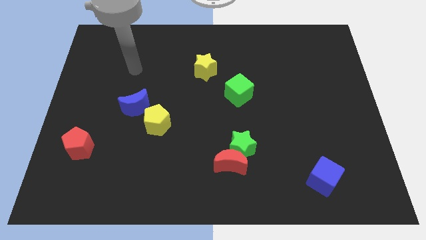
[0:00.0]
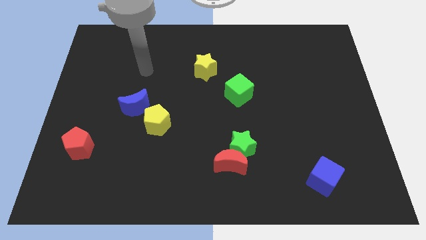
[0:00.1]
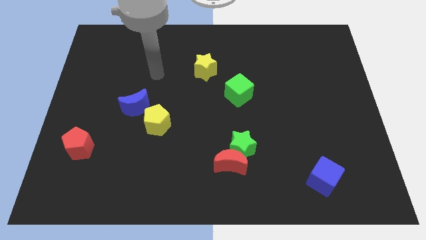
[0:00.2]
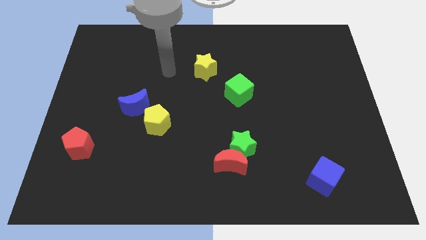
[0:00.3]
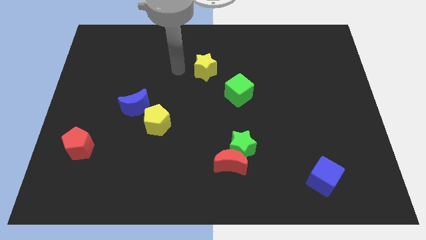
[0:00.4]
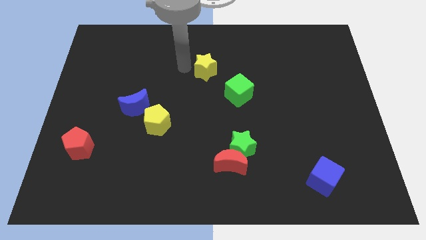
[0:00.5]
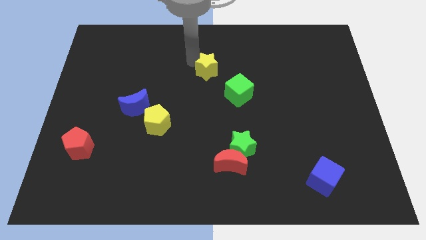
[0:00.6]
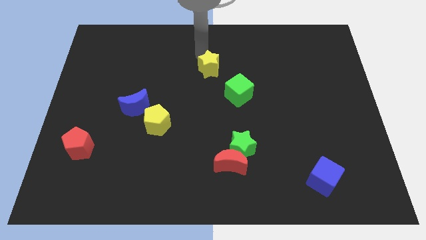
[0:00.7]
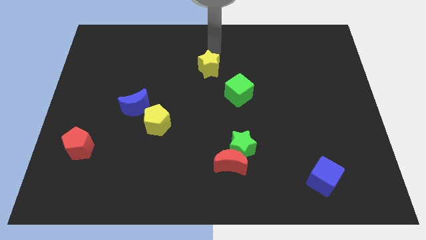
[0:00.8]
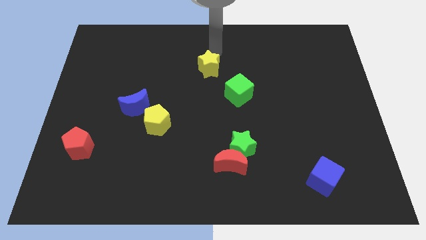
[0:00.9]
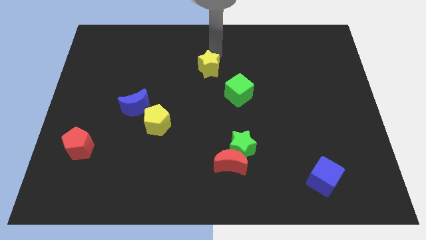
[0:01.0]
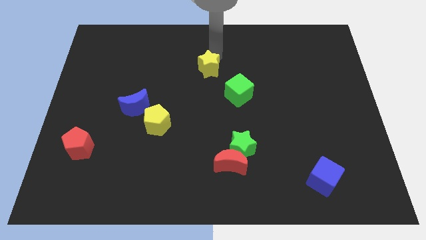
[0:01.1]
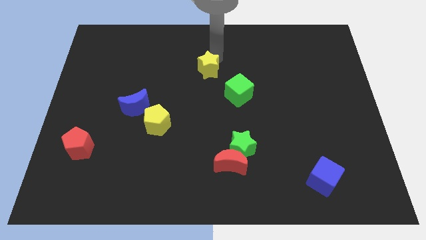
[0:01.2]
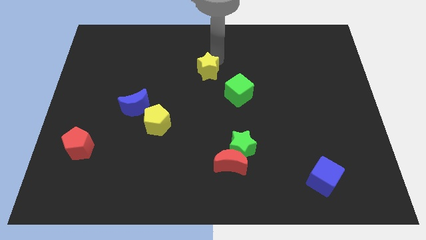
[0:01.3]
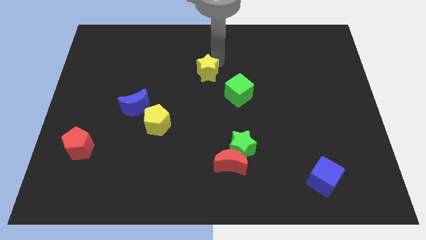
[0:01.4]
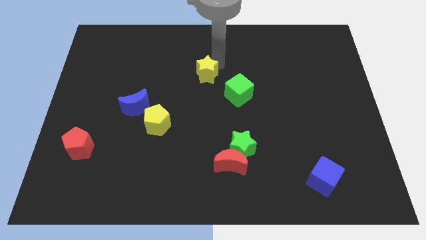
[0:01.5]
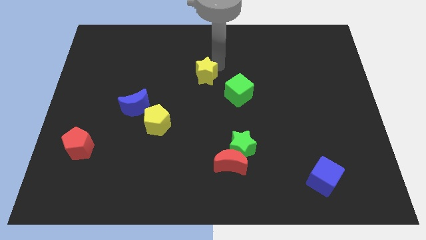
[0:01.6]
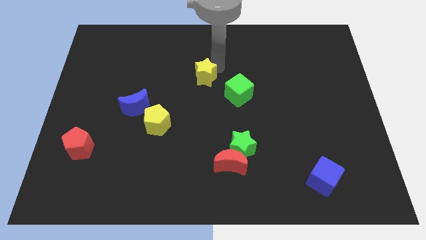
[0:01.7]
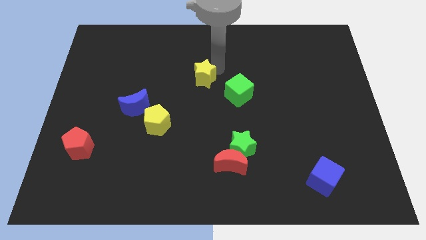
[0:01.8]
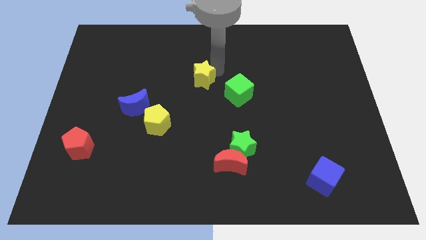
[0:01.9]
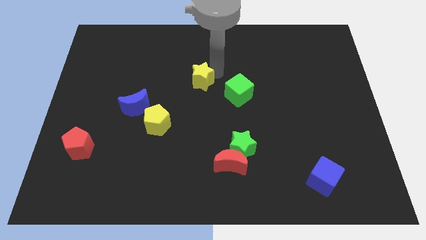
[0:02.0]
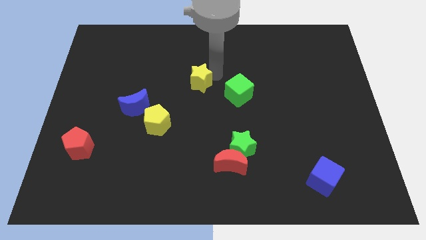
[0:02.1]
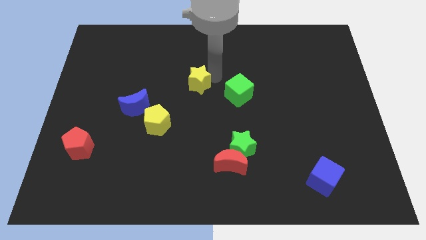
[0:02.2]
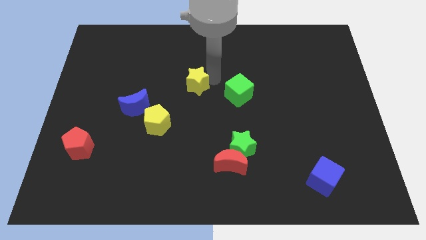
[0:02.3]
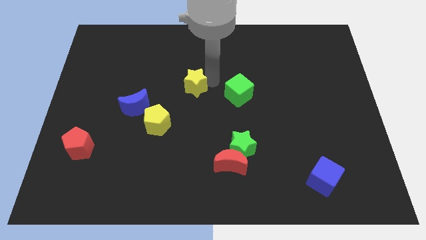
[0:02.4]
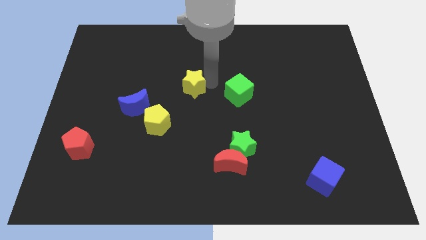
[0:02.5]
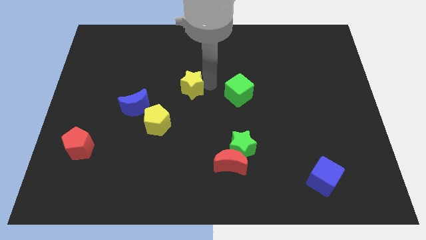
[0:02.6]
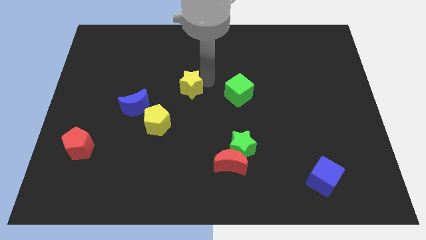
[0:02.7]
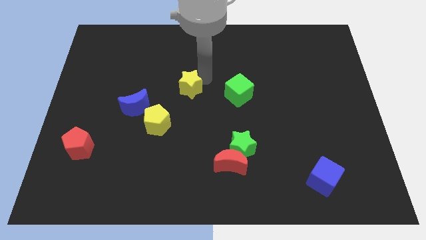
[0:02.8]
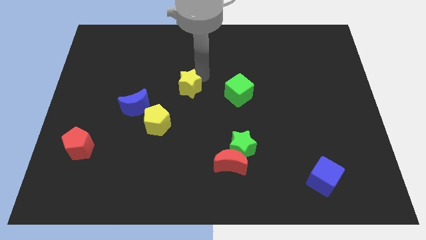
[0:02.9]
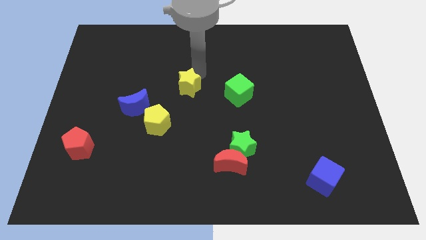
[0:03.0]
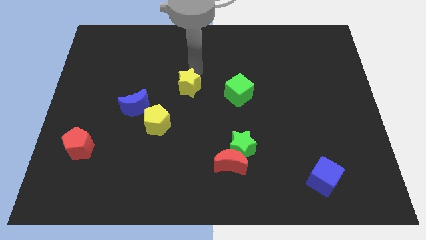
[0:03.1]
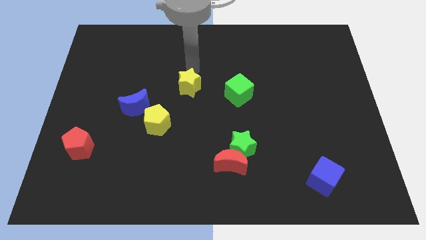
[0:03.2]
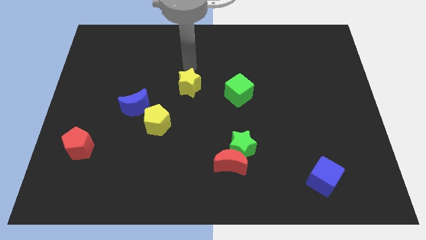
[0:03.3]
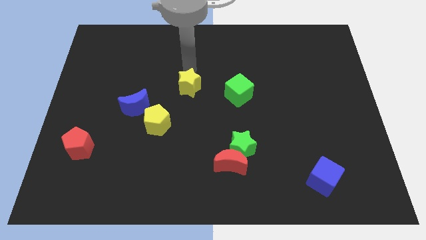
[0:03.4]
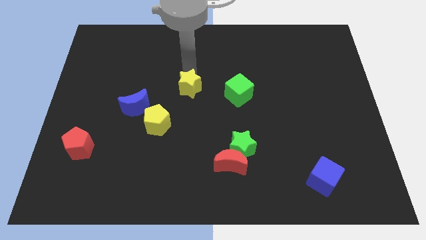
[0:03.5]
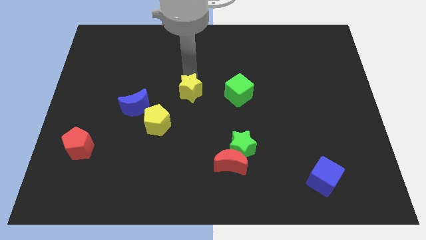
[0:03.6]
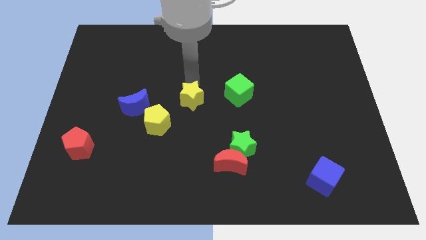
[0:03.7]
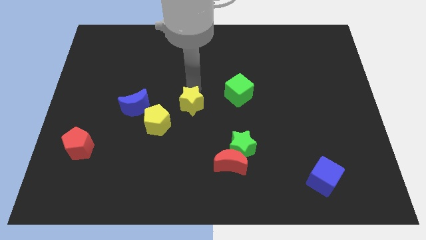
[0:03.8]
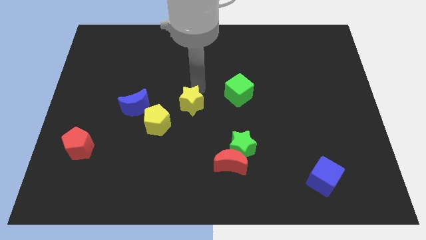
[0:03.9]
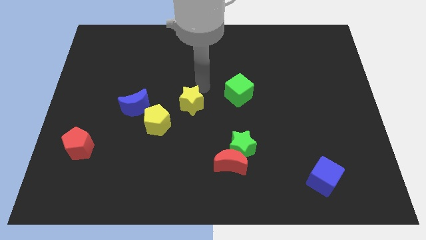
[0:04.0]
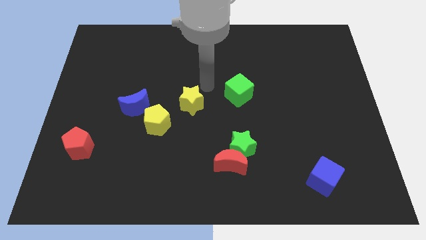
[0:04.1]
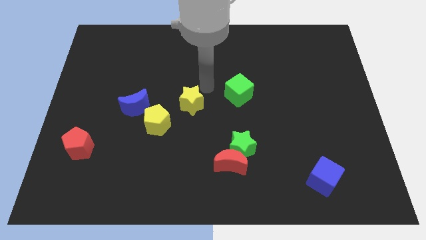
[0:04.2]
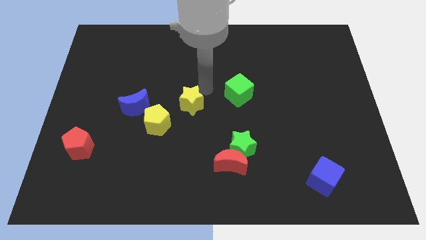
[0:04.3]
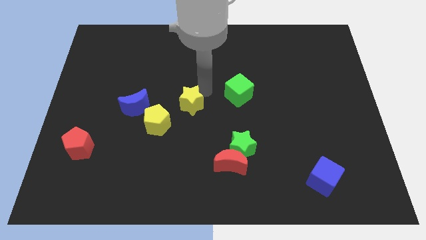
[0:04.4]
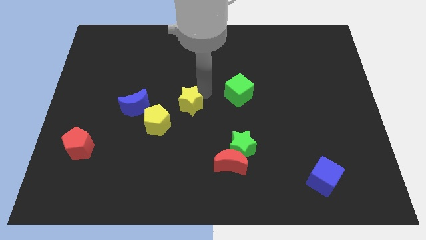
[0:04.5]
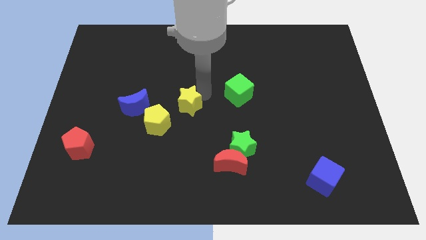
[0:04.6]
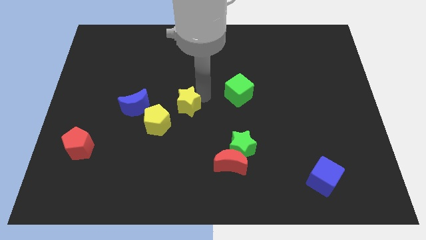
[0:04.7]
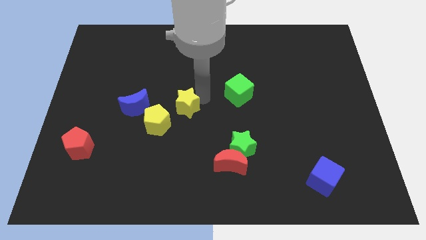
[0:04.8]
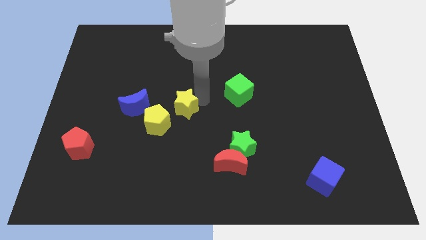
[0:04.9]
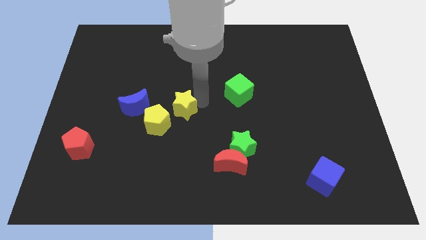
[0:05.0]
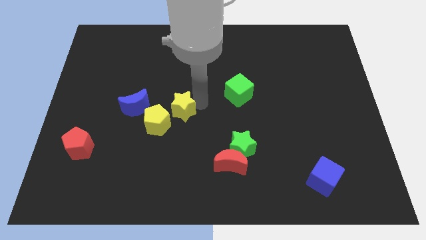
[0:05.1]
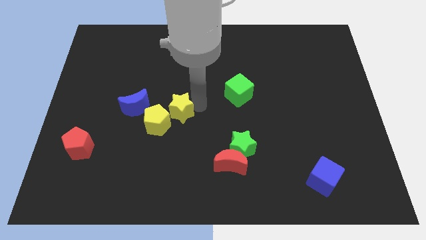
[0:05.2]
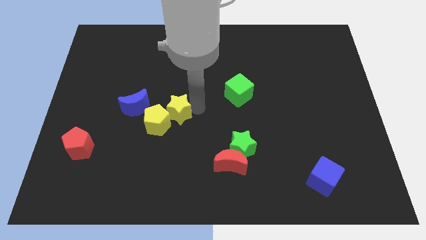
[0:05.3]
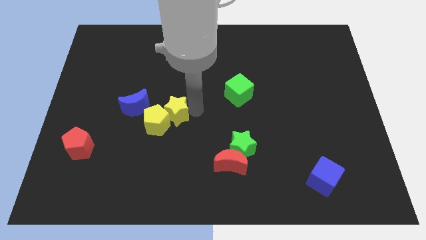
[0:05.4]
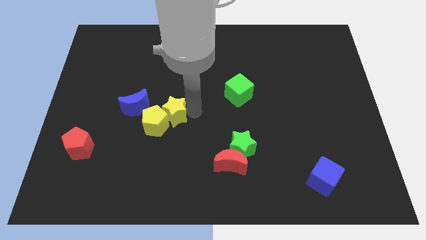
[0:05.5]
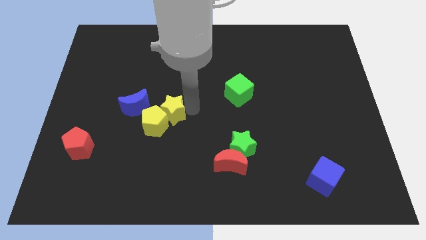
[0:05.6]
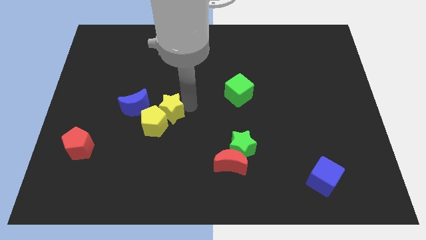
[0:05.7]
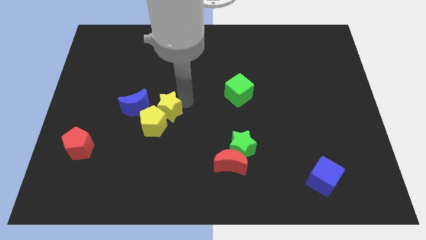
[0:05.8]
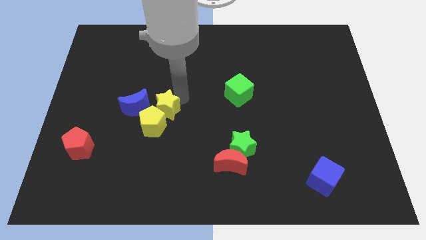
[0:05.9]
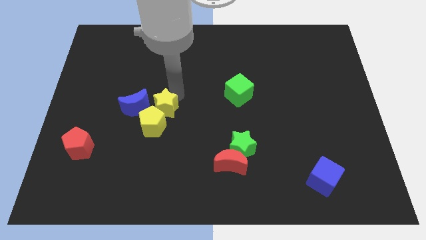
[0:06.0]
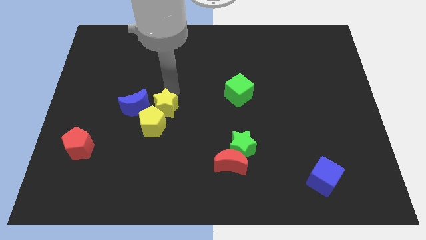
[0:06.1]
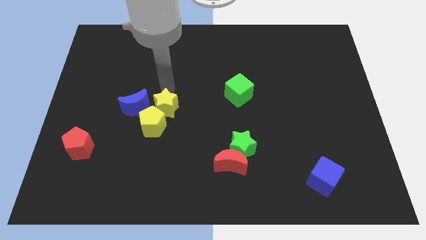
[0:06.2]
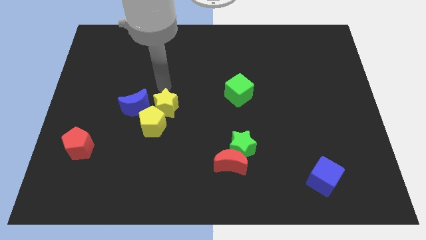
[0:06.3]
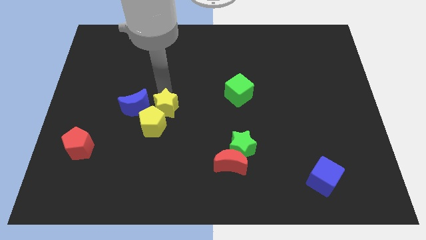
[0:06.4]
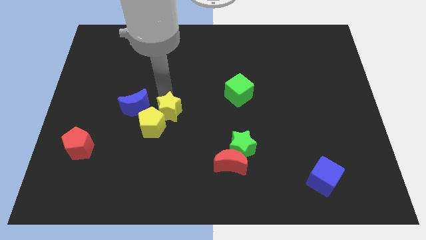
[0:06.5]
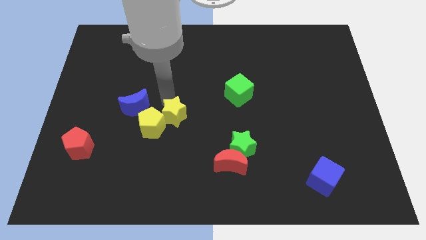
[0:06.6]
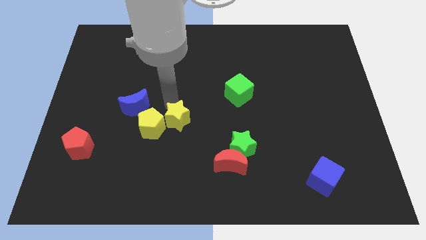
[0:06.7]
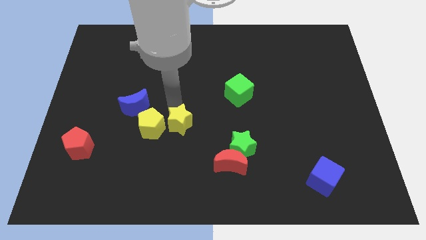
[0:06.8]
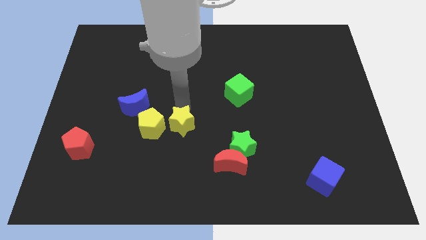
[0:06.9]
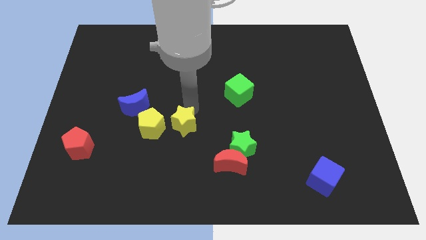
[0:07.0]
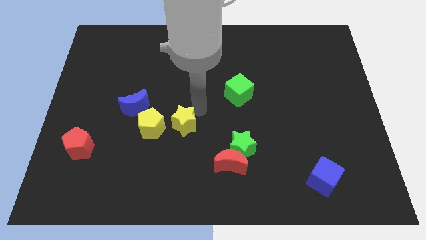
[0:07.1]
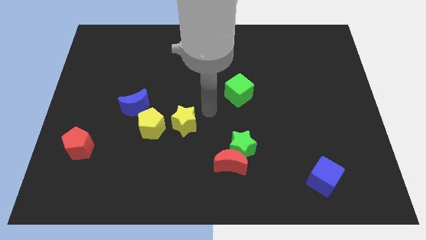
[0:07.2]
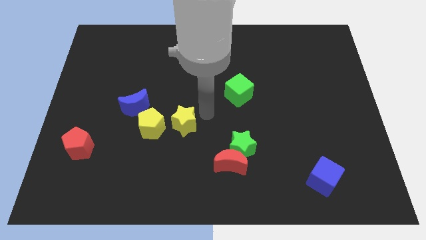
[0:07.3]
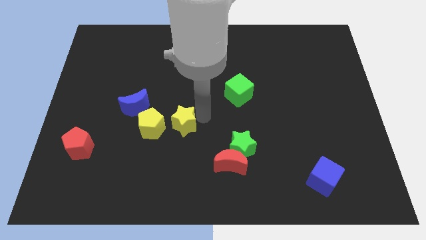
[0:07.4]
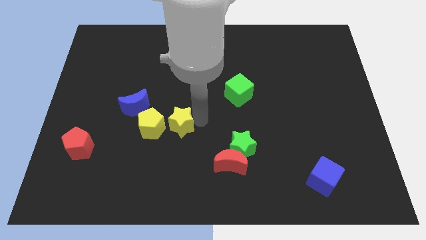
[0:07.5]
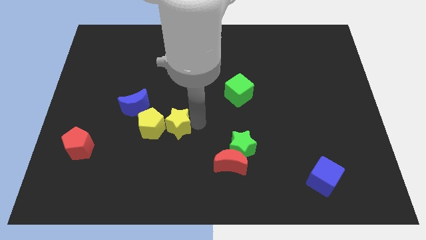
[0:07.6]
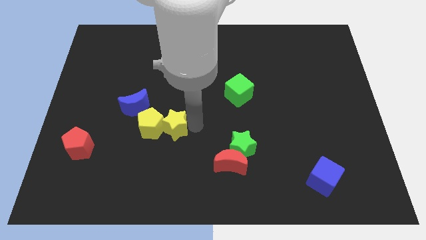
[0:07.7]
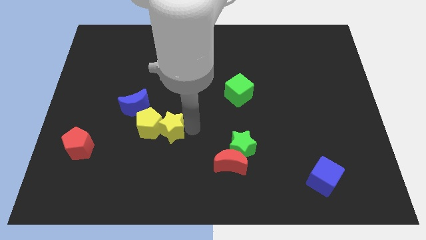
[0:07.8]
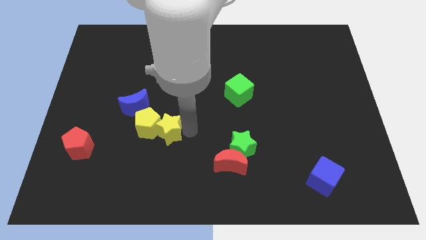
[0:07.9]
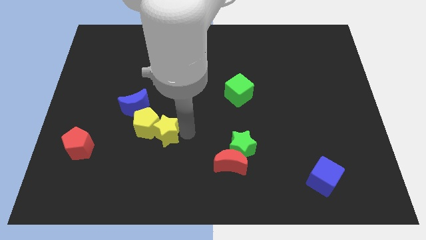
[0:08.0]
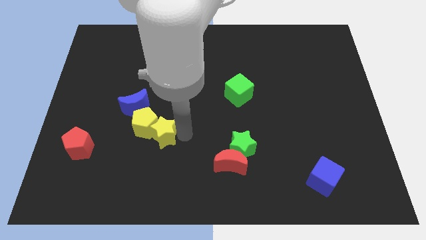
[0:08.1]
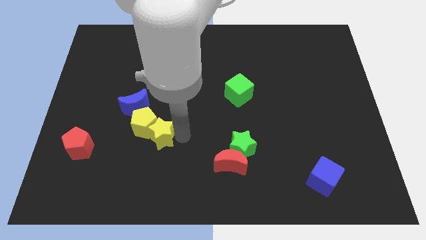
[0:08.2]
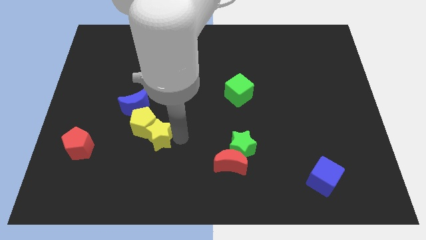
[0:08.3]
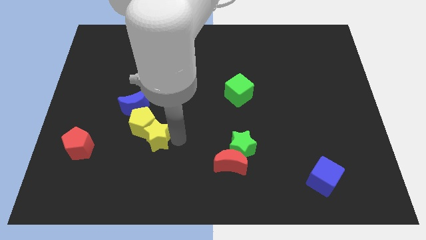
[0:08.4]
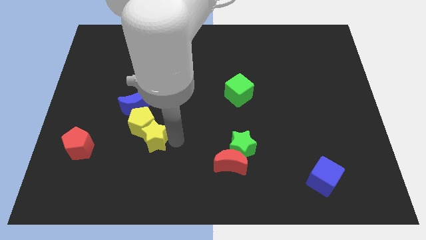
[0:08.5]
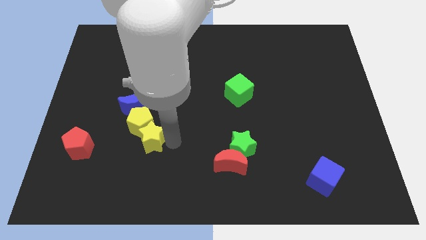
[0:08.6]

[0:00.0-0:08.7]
slide the yellow star just right of the red pentagon
